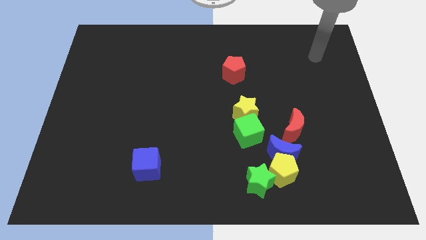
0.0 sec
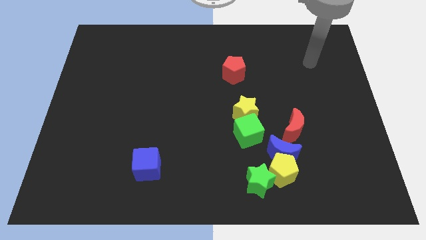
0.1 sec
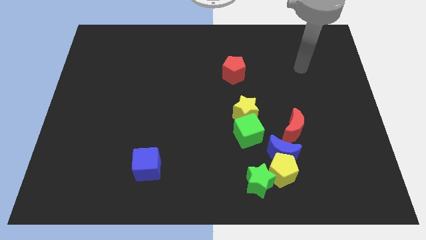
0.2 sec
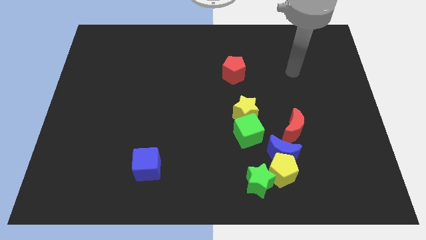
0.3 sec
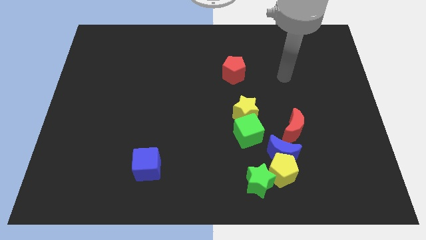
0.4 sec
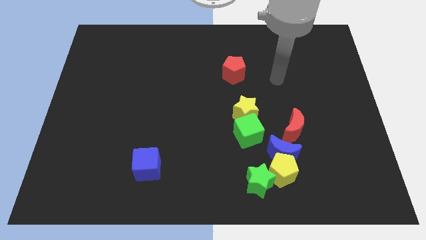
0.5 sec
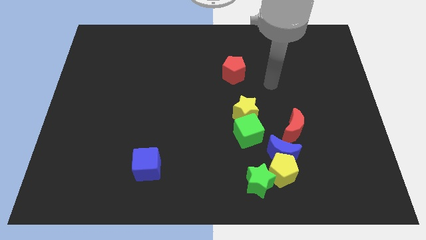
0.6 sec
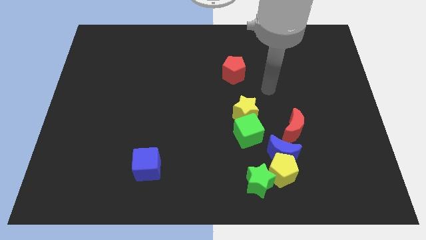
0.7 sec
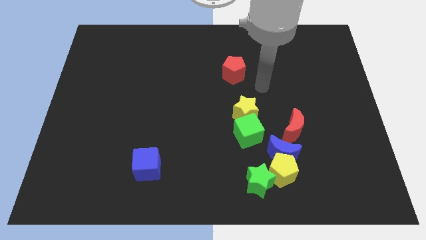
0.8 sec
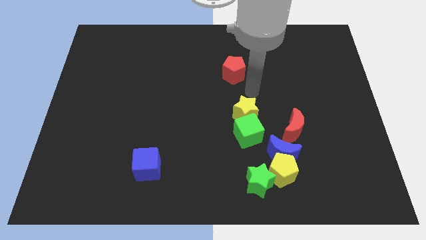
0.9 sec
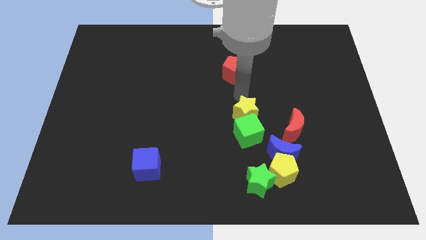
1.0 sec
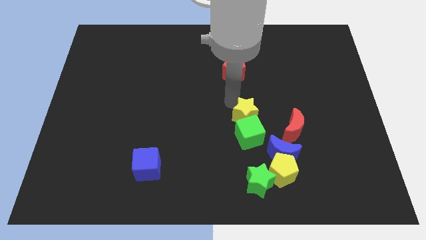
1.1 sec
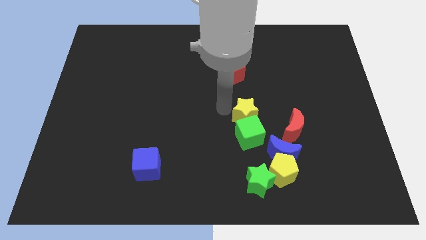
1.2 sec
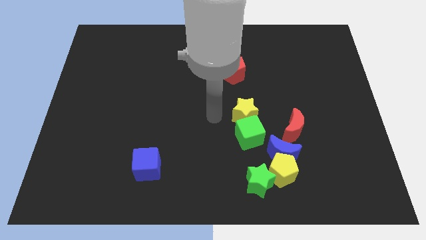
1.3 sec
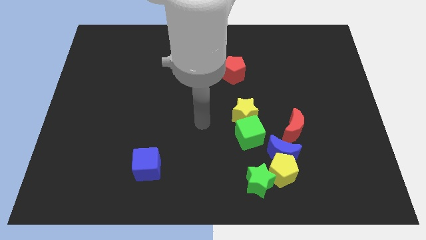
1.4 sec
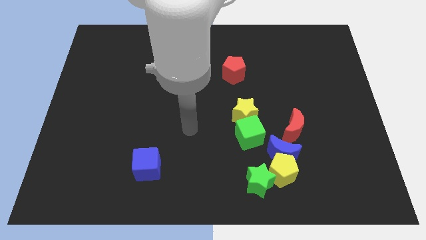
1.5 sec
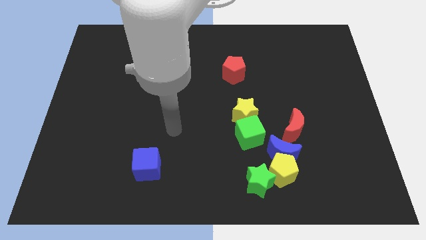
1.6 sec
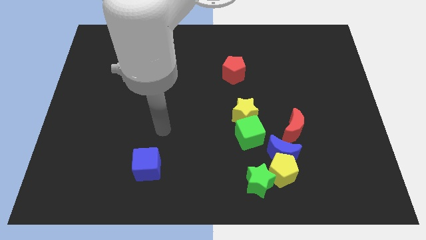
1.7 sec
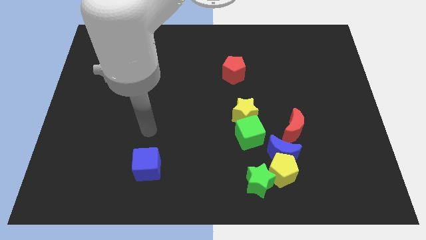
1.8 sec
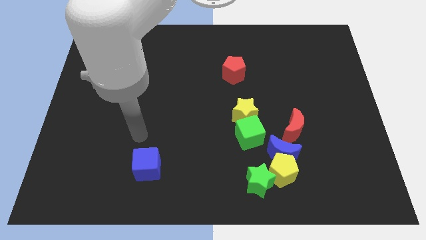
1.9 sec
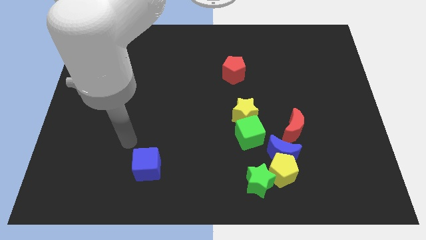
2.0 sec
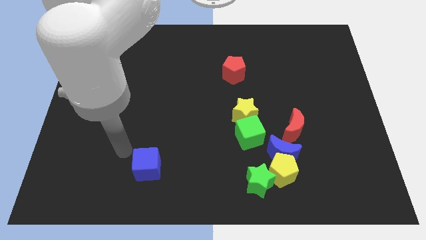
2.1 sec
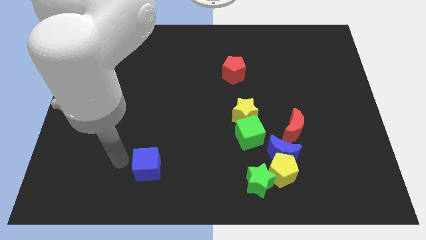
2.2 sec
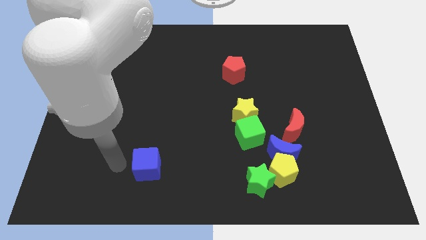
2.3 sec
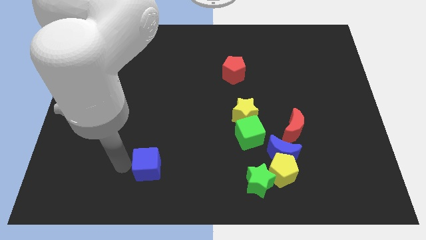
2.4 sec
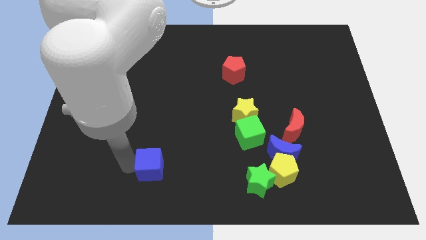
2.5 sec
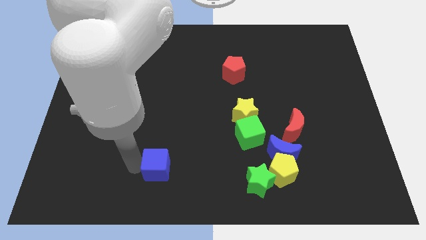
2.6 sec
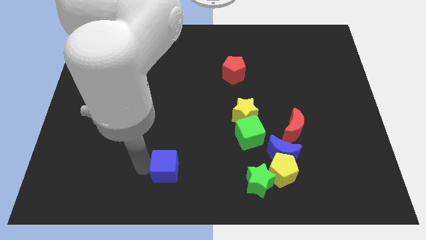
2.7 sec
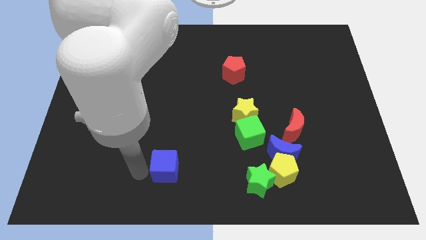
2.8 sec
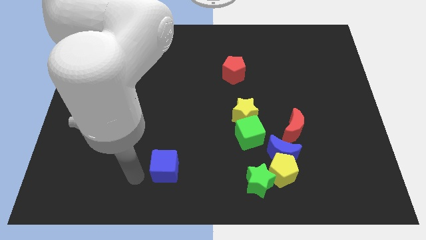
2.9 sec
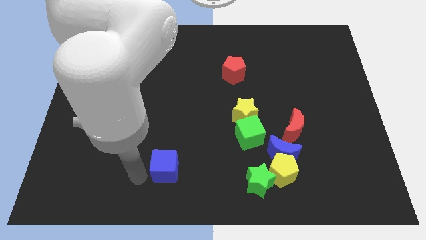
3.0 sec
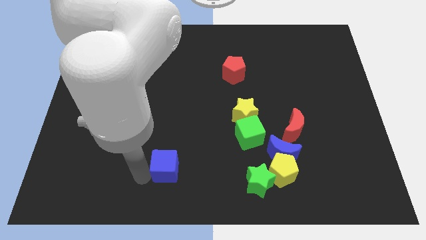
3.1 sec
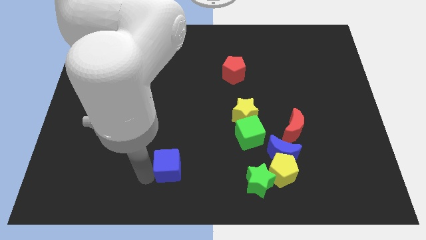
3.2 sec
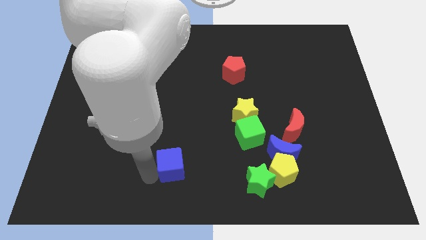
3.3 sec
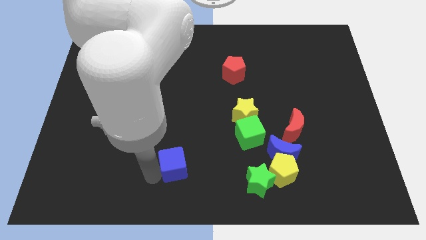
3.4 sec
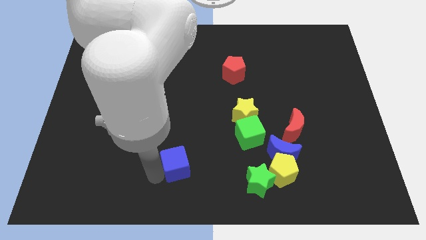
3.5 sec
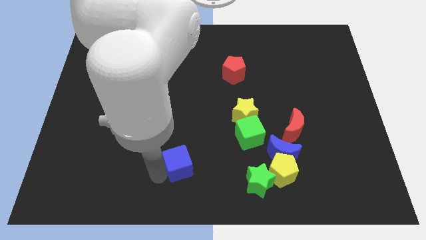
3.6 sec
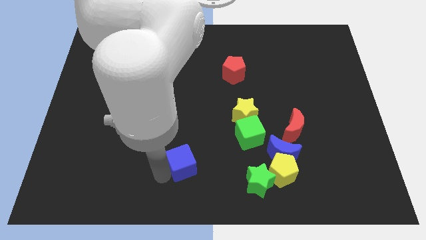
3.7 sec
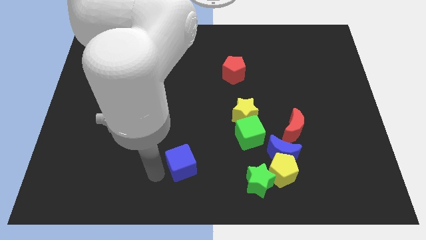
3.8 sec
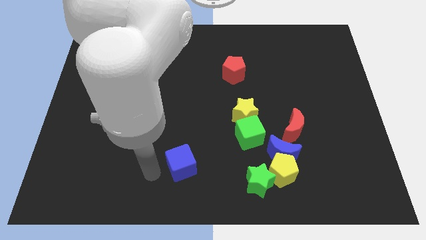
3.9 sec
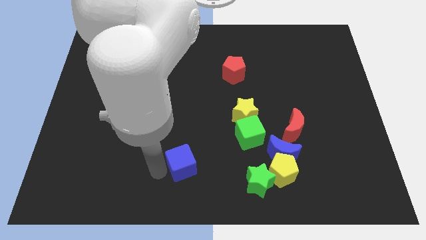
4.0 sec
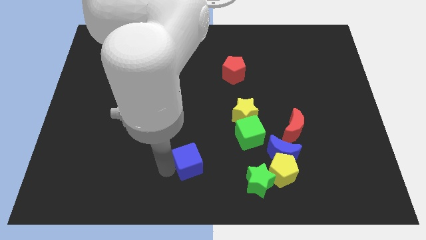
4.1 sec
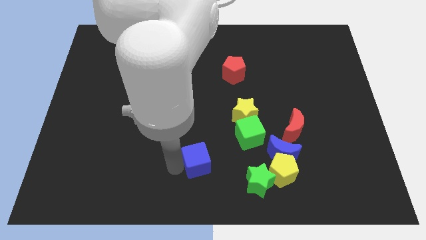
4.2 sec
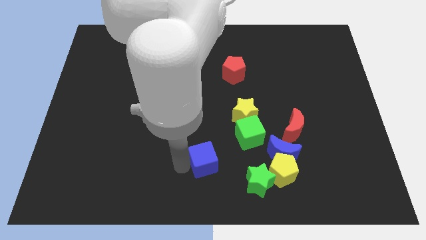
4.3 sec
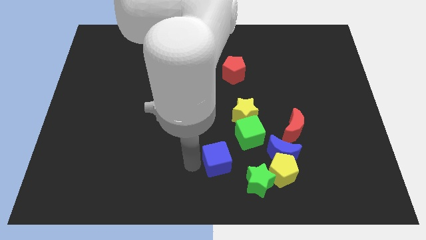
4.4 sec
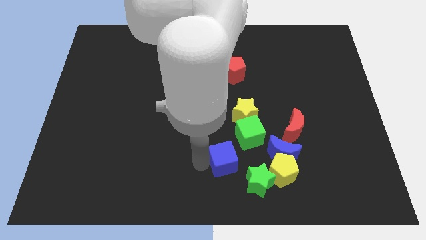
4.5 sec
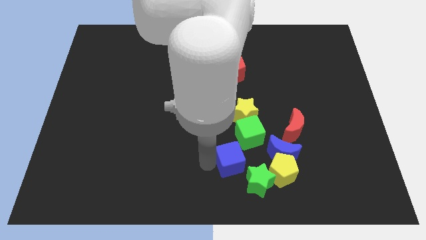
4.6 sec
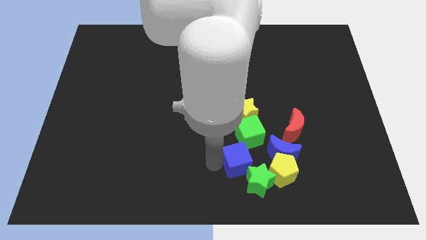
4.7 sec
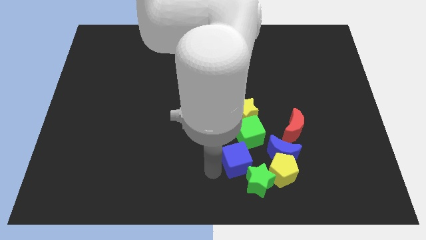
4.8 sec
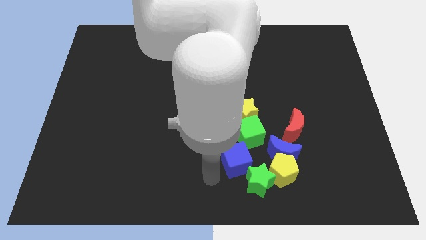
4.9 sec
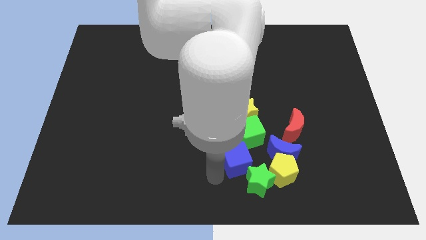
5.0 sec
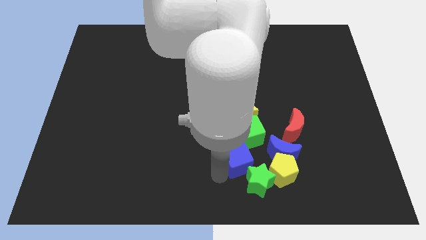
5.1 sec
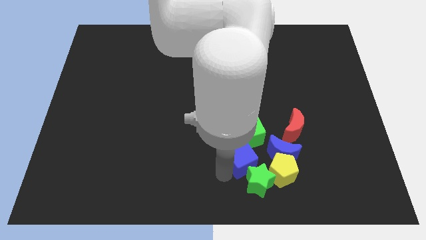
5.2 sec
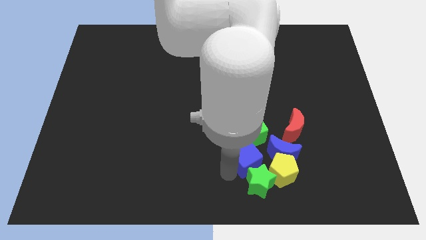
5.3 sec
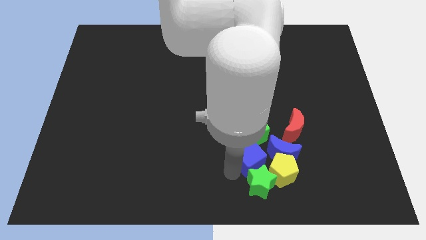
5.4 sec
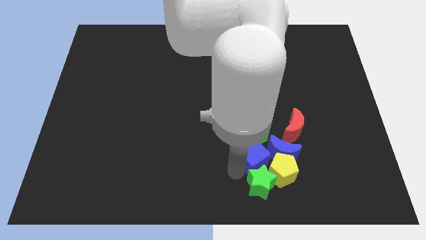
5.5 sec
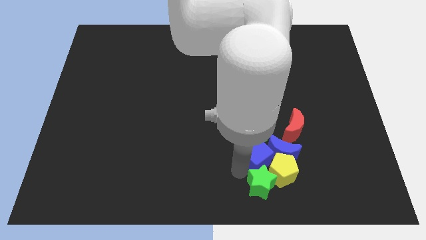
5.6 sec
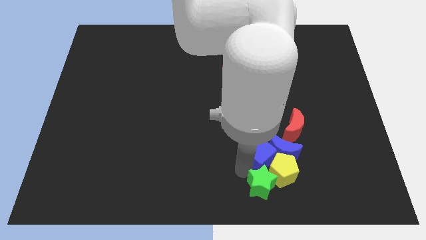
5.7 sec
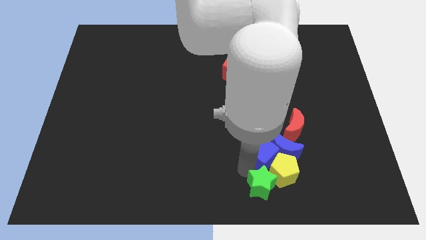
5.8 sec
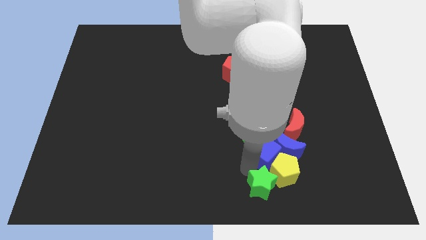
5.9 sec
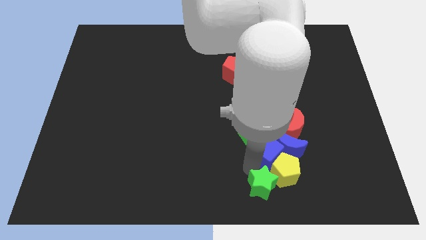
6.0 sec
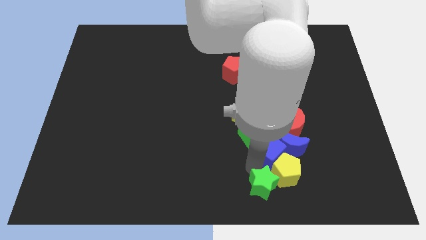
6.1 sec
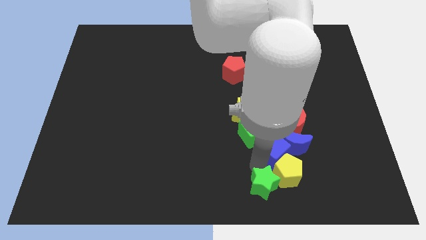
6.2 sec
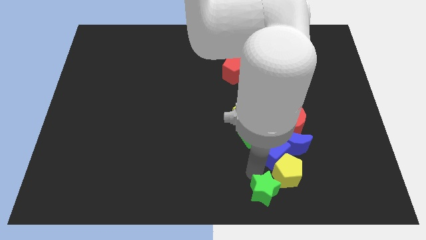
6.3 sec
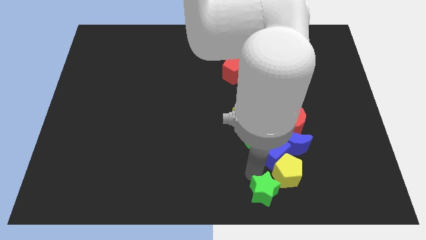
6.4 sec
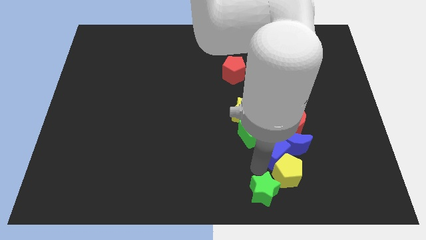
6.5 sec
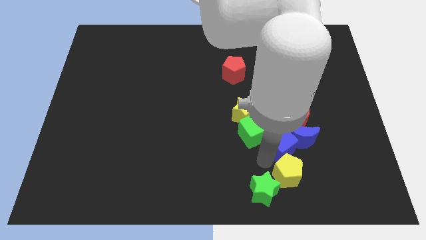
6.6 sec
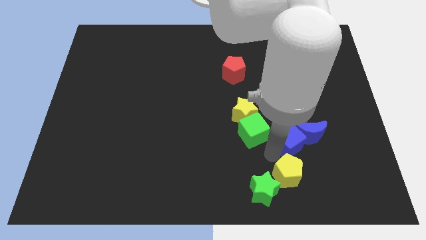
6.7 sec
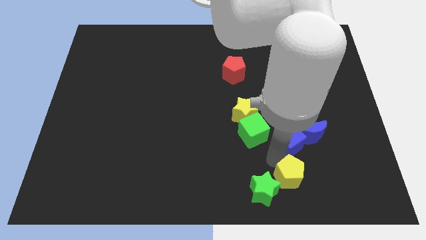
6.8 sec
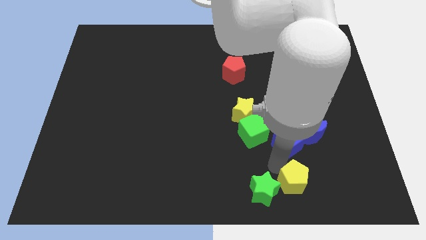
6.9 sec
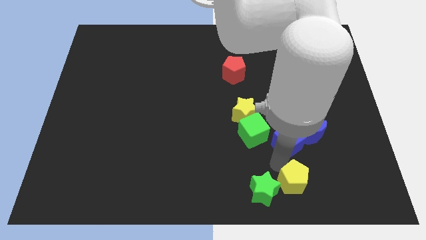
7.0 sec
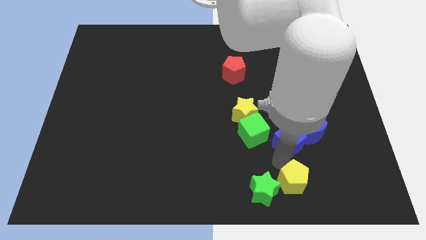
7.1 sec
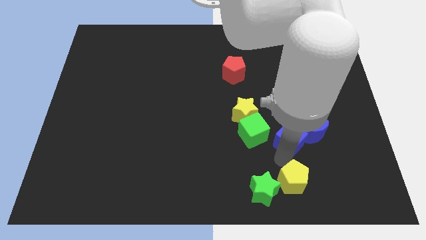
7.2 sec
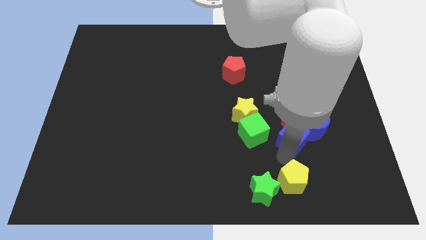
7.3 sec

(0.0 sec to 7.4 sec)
move the blue cube next to the red moon
